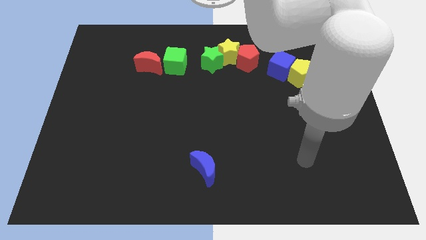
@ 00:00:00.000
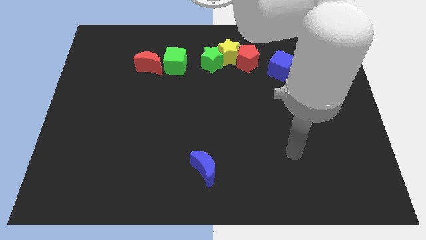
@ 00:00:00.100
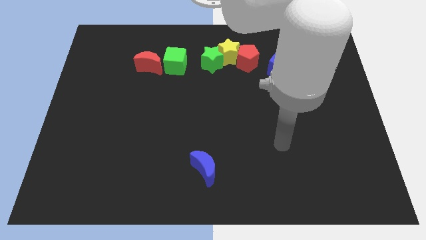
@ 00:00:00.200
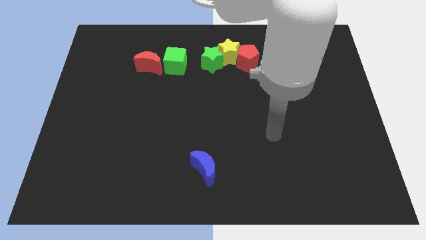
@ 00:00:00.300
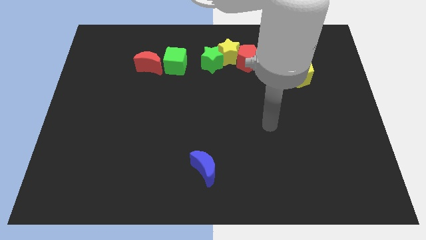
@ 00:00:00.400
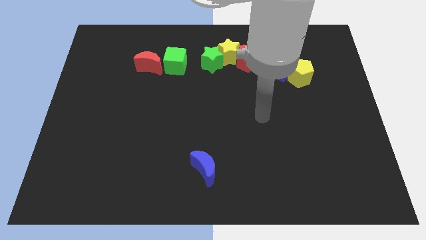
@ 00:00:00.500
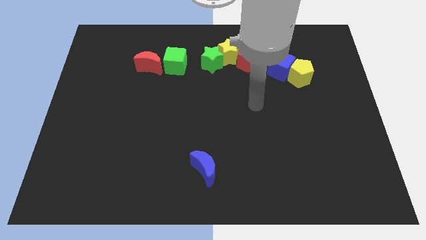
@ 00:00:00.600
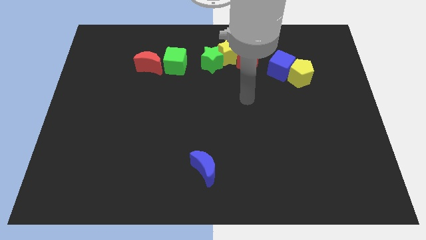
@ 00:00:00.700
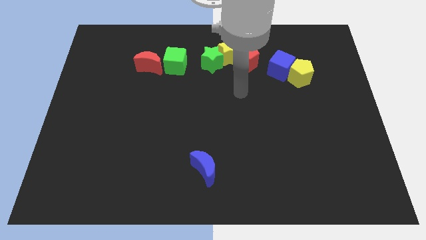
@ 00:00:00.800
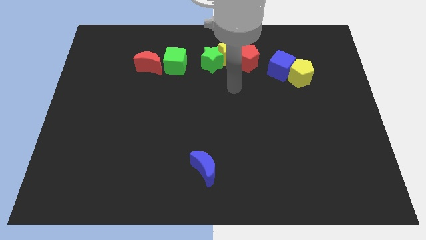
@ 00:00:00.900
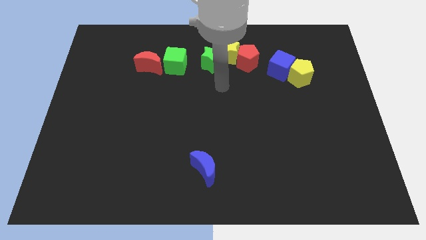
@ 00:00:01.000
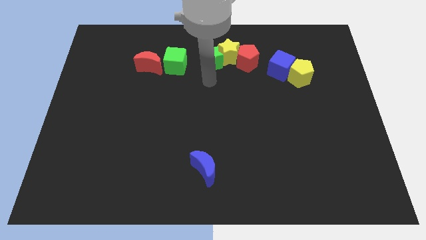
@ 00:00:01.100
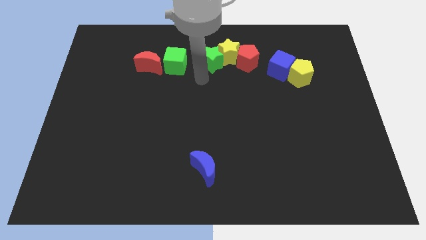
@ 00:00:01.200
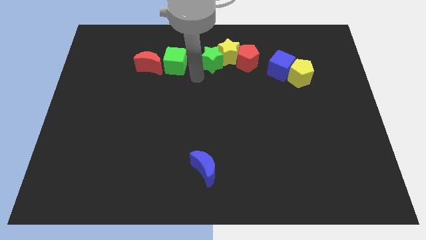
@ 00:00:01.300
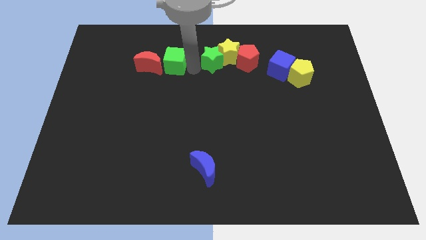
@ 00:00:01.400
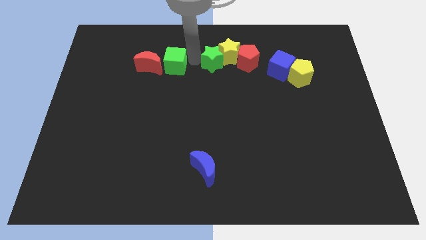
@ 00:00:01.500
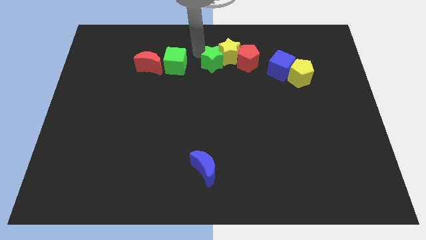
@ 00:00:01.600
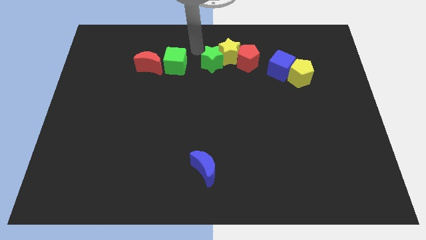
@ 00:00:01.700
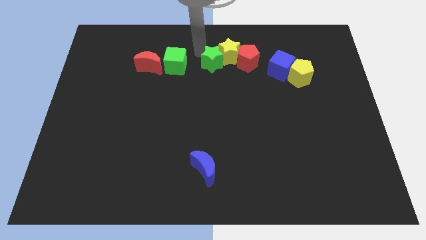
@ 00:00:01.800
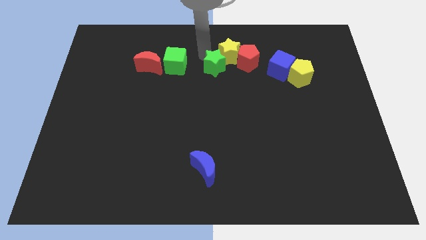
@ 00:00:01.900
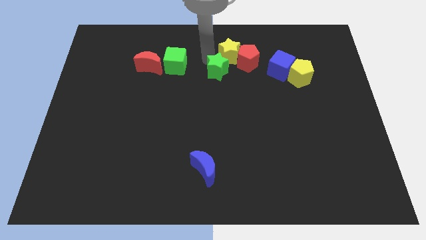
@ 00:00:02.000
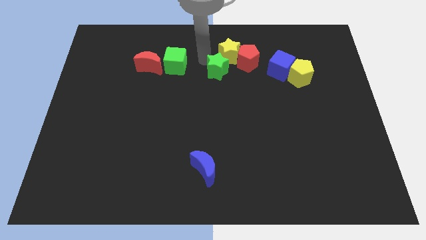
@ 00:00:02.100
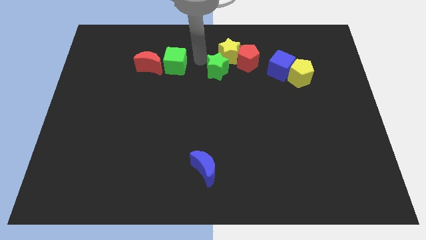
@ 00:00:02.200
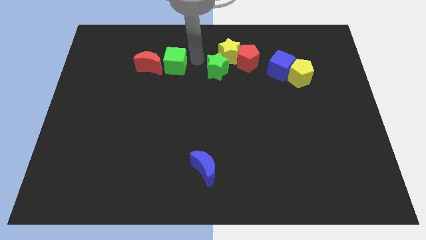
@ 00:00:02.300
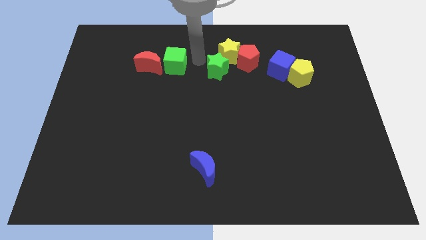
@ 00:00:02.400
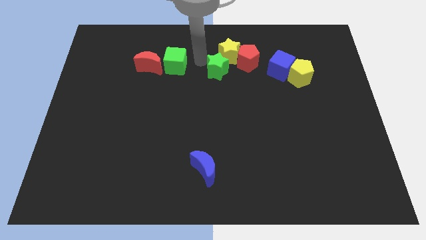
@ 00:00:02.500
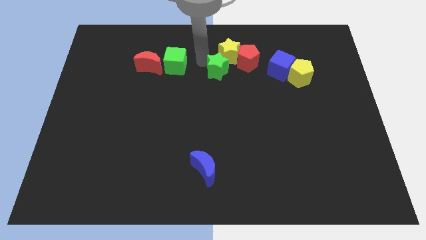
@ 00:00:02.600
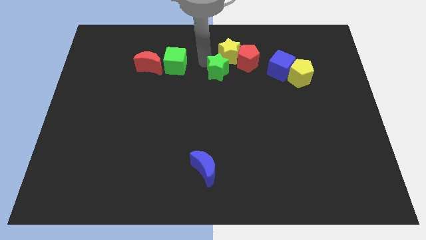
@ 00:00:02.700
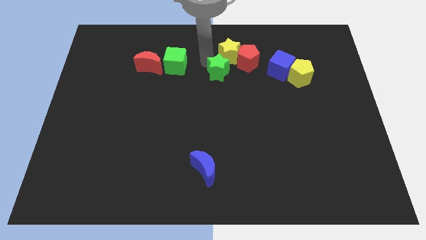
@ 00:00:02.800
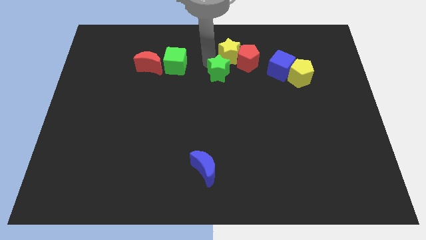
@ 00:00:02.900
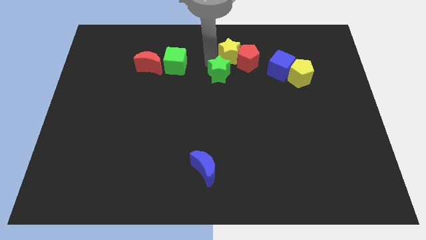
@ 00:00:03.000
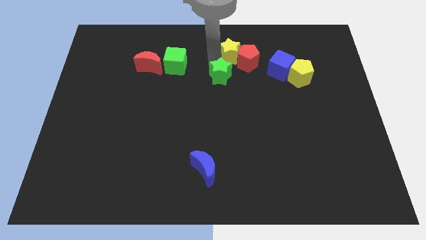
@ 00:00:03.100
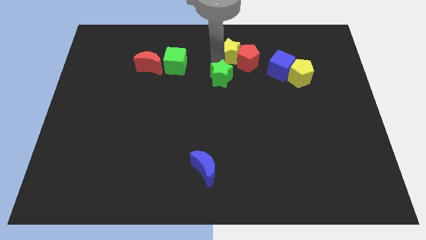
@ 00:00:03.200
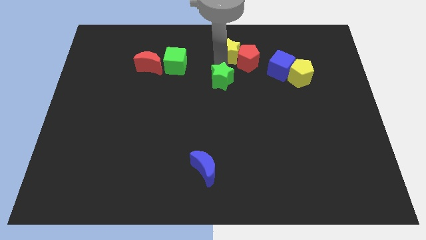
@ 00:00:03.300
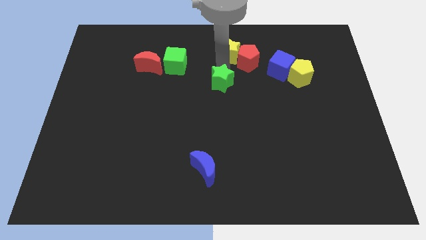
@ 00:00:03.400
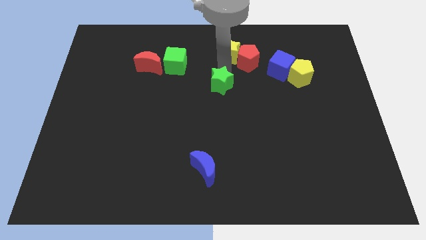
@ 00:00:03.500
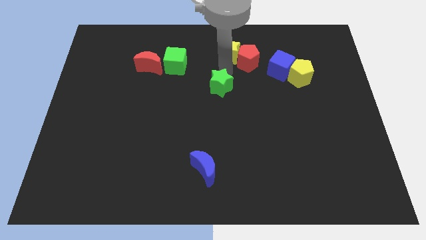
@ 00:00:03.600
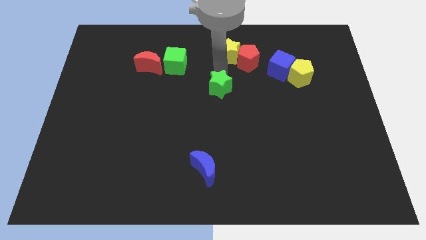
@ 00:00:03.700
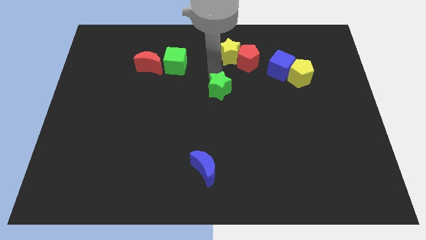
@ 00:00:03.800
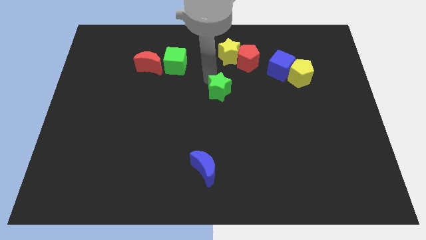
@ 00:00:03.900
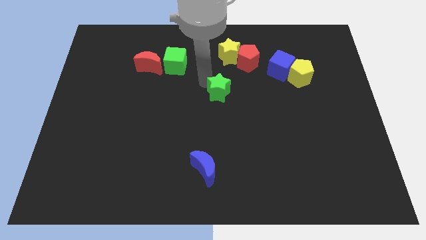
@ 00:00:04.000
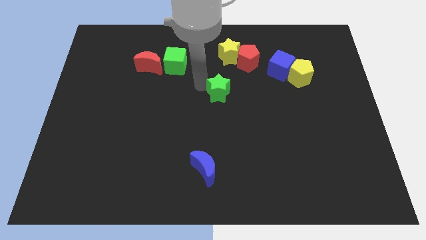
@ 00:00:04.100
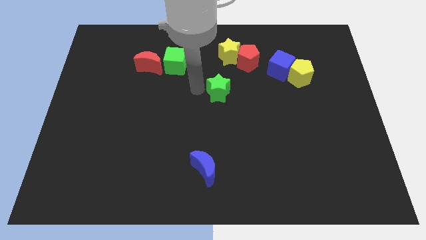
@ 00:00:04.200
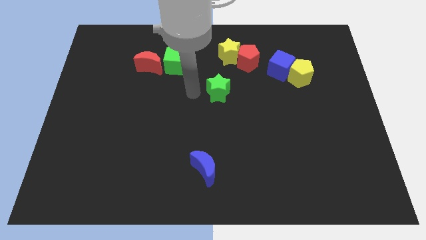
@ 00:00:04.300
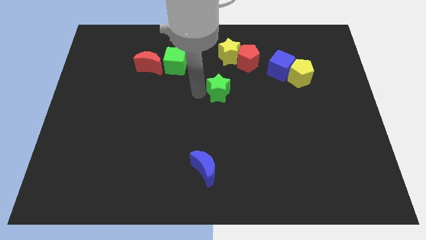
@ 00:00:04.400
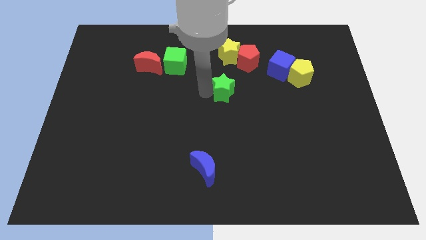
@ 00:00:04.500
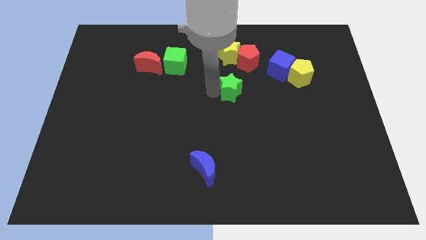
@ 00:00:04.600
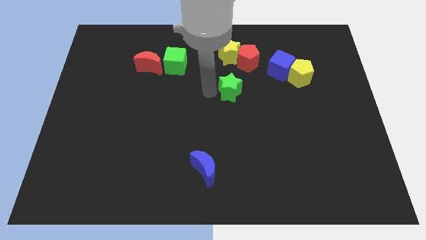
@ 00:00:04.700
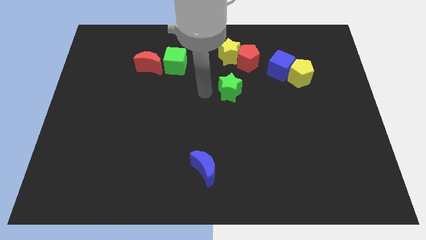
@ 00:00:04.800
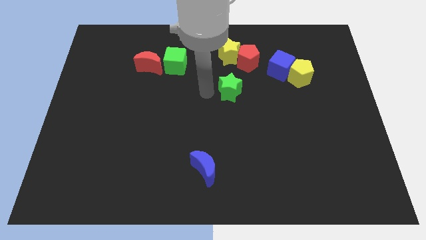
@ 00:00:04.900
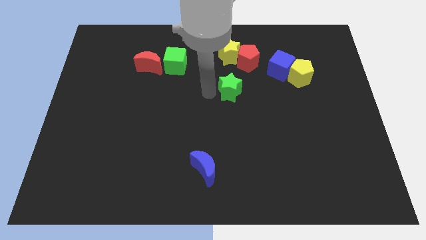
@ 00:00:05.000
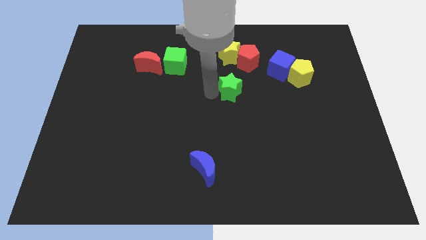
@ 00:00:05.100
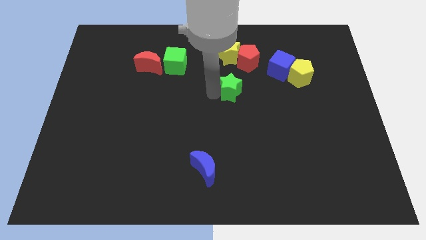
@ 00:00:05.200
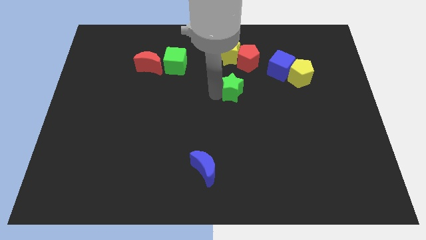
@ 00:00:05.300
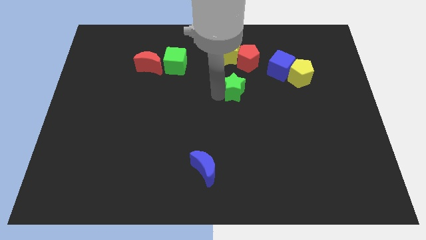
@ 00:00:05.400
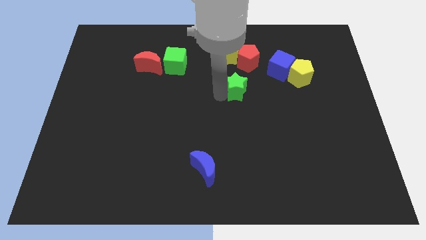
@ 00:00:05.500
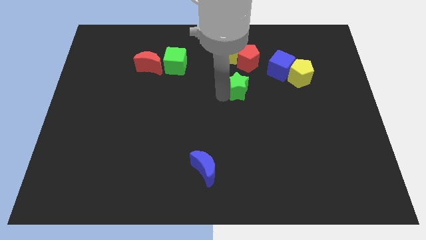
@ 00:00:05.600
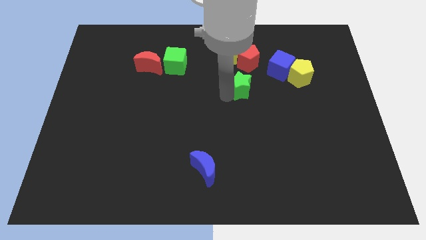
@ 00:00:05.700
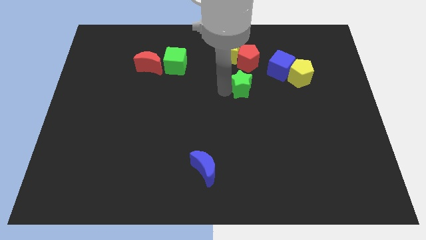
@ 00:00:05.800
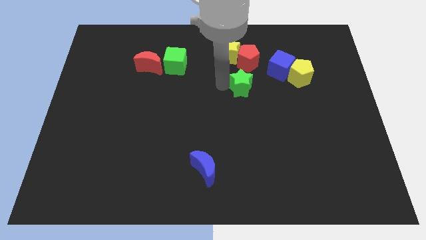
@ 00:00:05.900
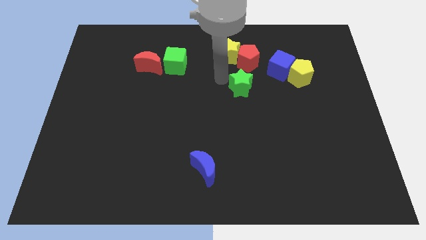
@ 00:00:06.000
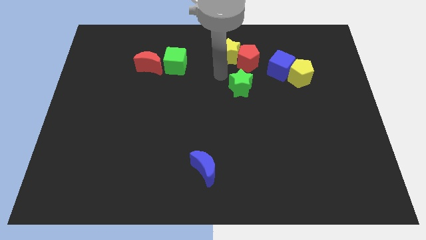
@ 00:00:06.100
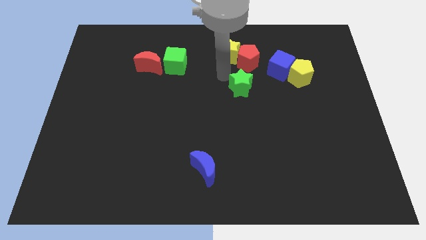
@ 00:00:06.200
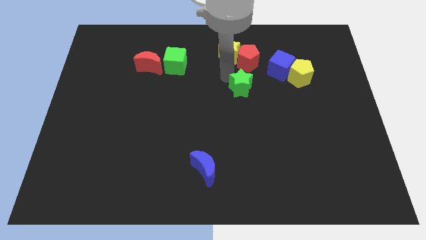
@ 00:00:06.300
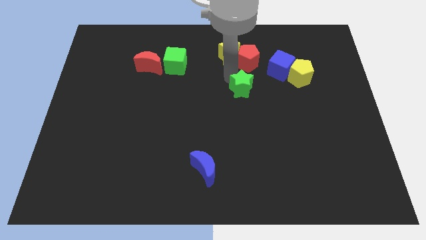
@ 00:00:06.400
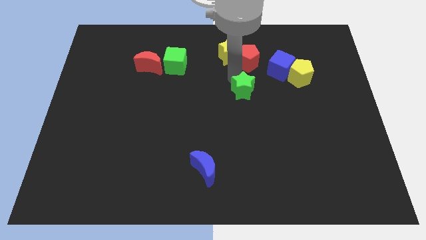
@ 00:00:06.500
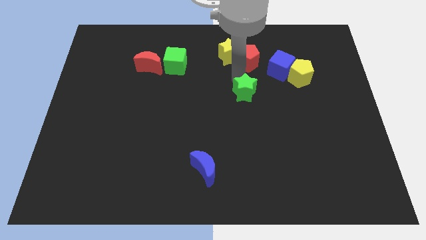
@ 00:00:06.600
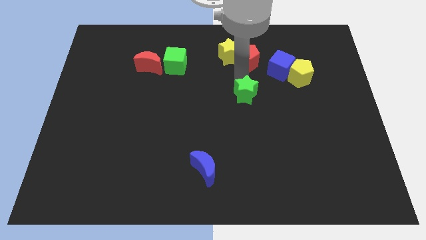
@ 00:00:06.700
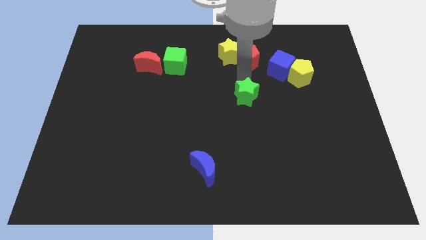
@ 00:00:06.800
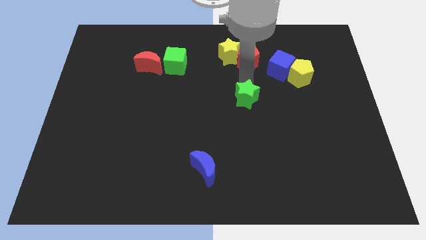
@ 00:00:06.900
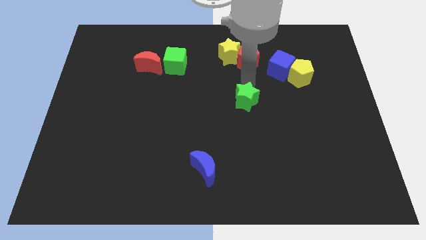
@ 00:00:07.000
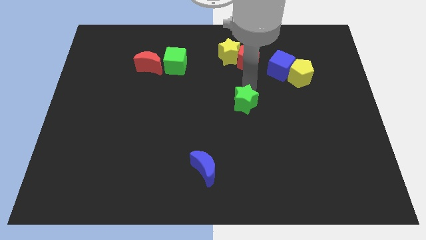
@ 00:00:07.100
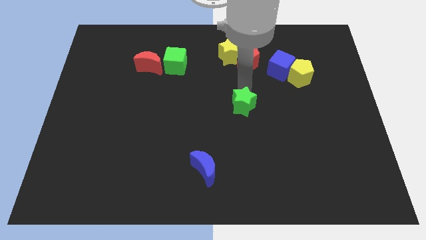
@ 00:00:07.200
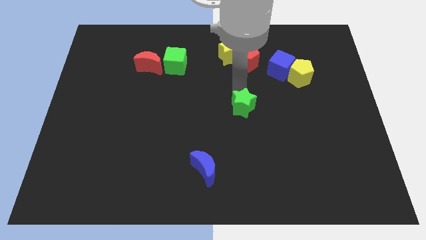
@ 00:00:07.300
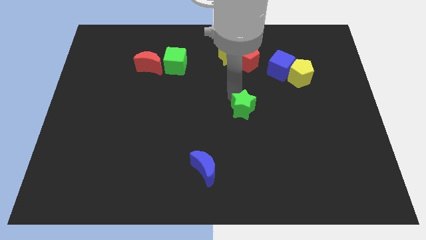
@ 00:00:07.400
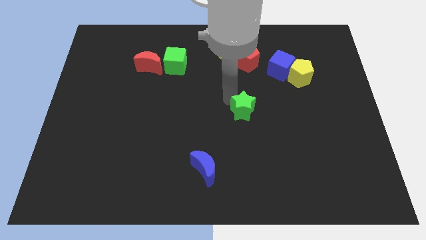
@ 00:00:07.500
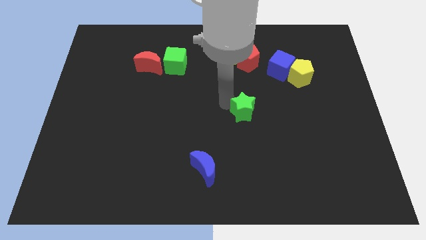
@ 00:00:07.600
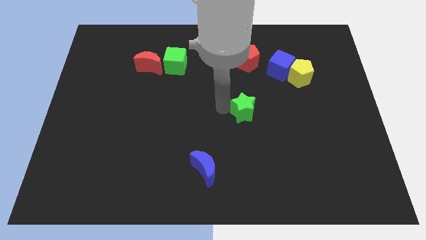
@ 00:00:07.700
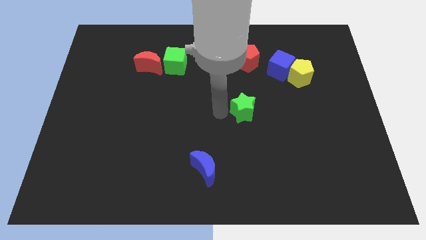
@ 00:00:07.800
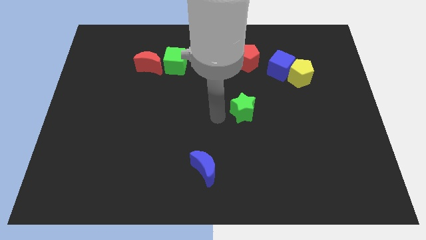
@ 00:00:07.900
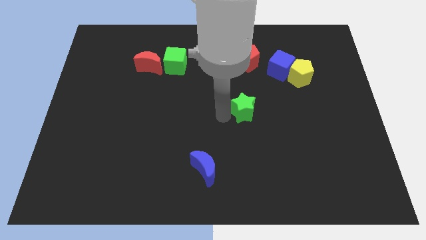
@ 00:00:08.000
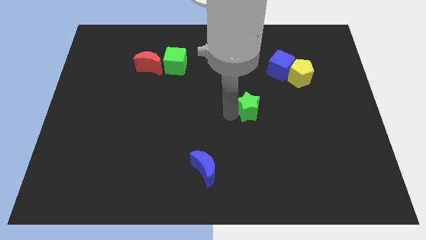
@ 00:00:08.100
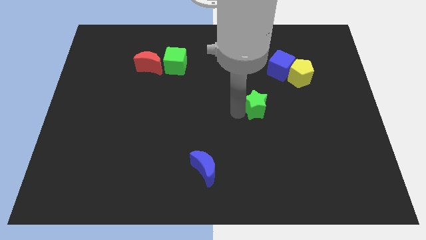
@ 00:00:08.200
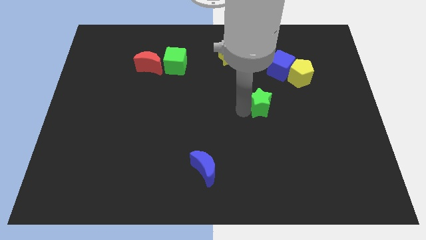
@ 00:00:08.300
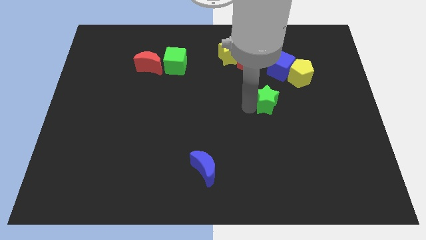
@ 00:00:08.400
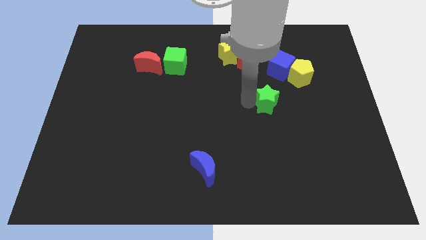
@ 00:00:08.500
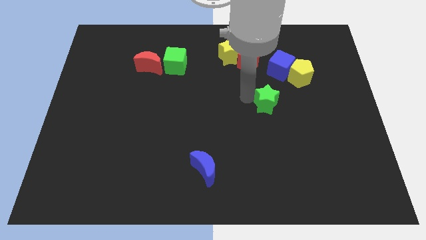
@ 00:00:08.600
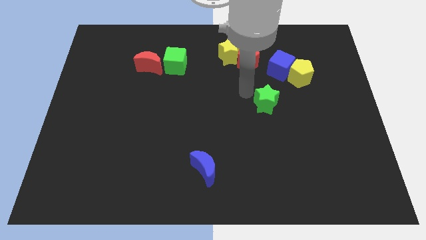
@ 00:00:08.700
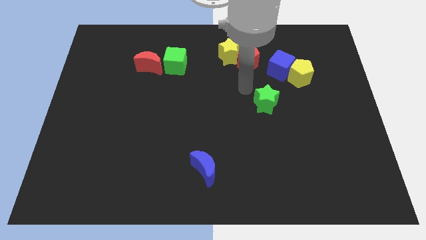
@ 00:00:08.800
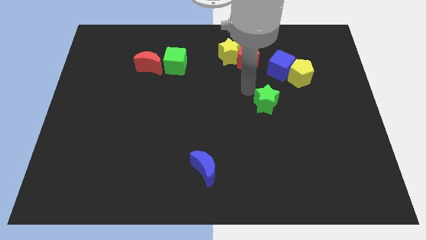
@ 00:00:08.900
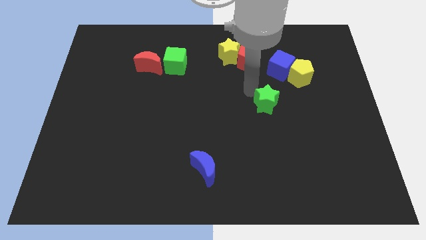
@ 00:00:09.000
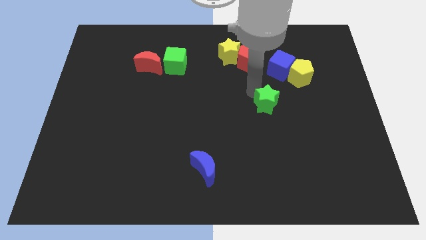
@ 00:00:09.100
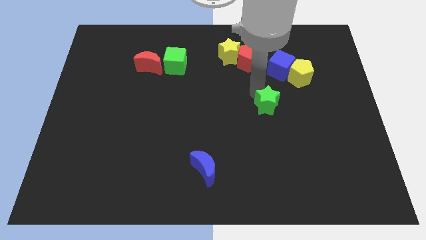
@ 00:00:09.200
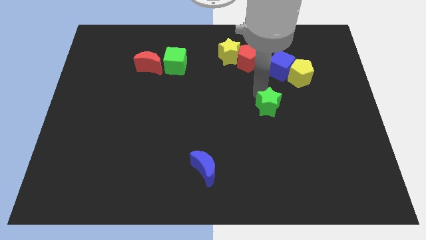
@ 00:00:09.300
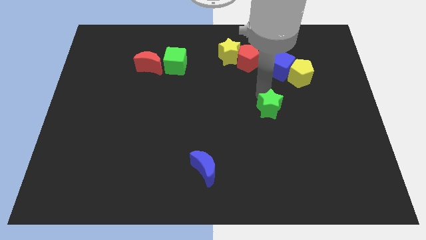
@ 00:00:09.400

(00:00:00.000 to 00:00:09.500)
move the green star diagonally down and to the right
